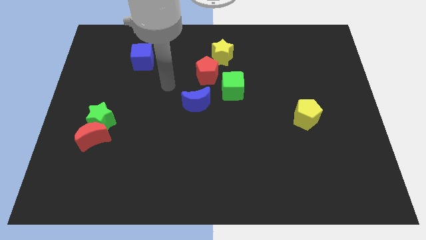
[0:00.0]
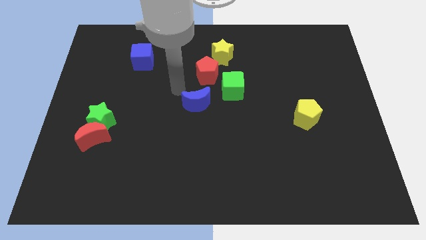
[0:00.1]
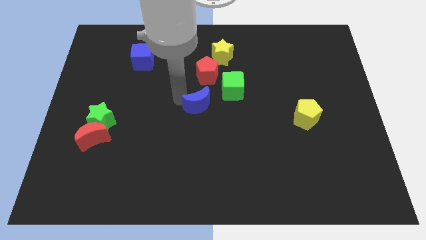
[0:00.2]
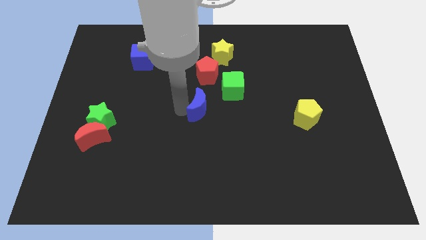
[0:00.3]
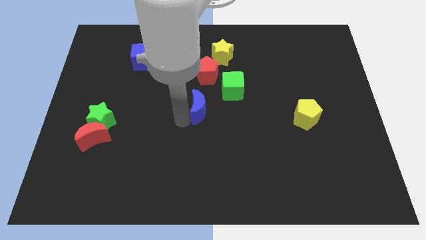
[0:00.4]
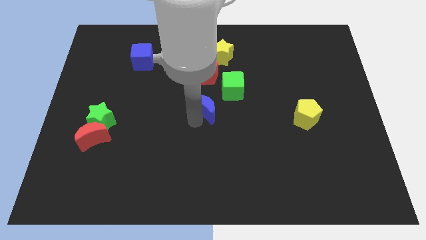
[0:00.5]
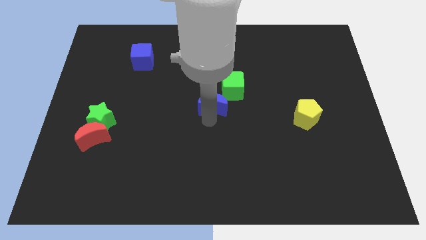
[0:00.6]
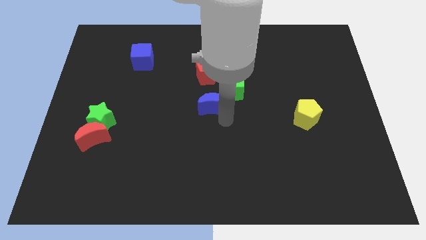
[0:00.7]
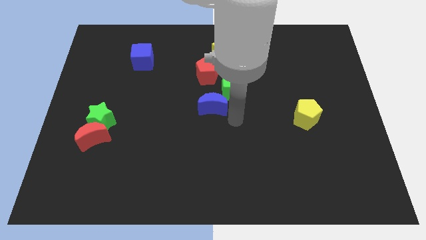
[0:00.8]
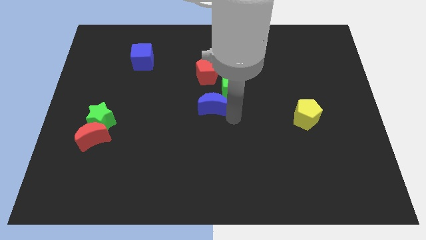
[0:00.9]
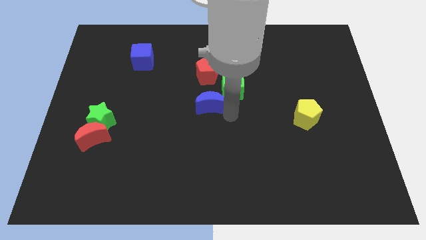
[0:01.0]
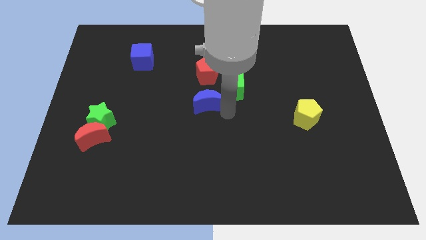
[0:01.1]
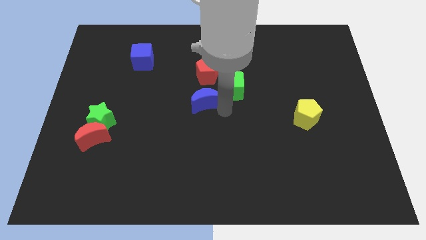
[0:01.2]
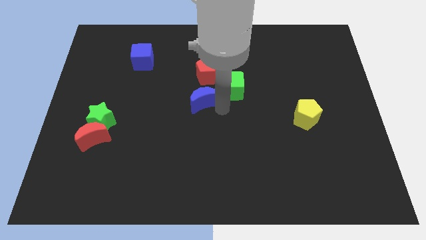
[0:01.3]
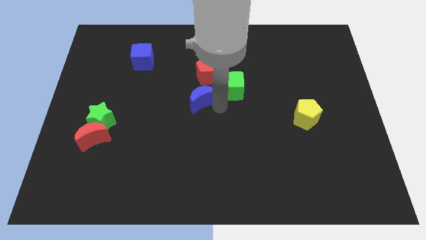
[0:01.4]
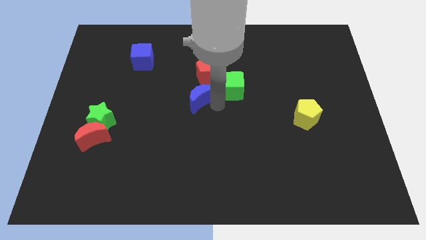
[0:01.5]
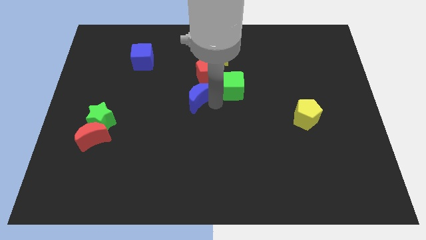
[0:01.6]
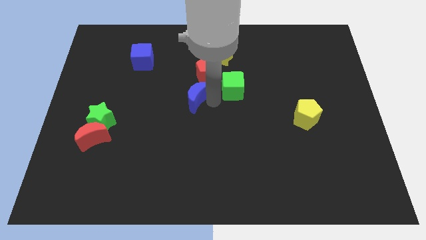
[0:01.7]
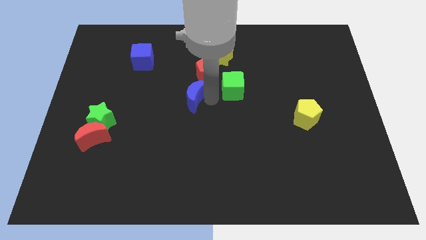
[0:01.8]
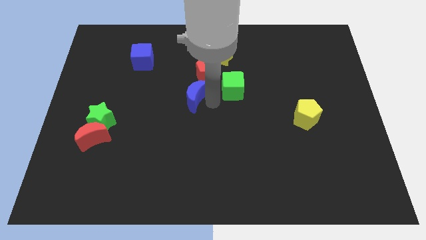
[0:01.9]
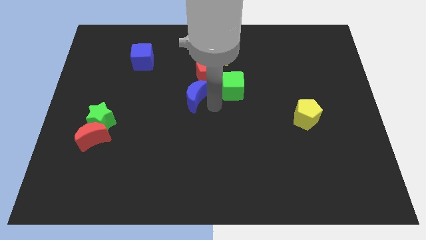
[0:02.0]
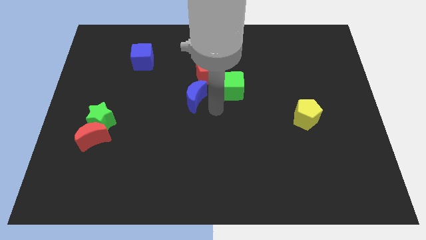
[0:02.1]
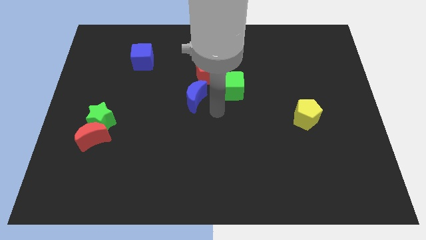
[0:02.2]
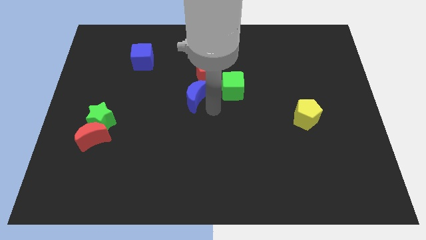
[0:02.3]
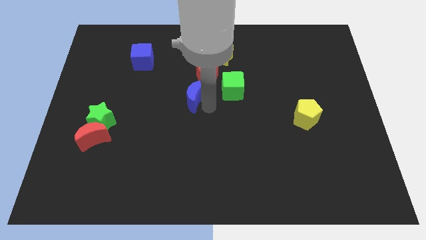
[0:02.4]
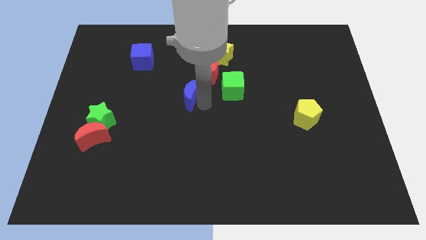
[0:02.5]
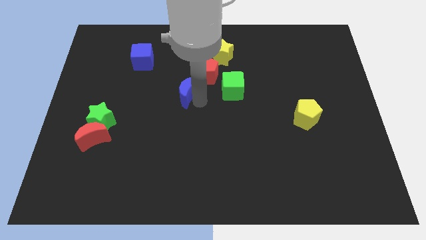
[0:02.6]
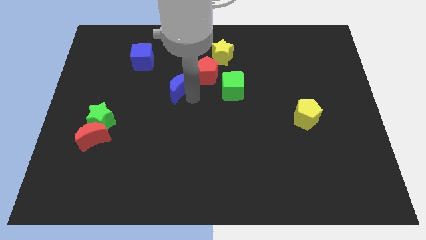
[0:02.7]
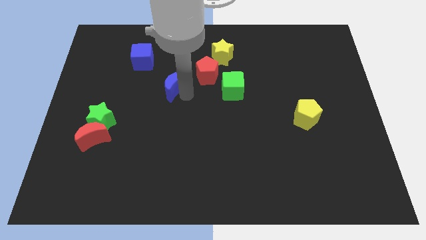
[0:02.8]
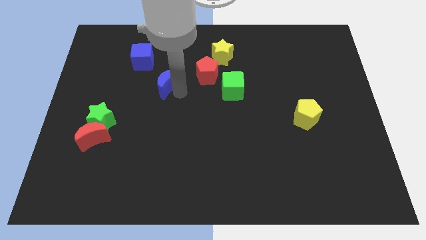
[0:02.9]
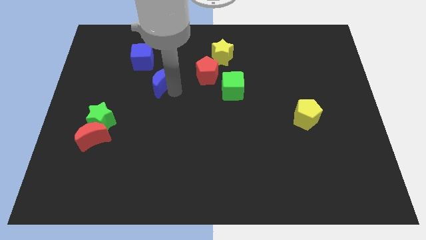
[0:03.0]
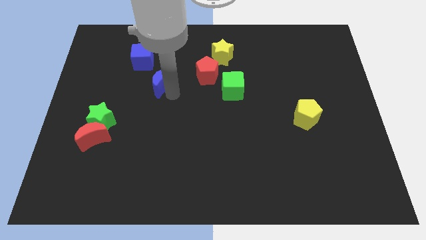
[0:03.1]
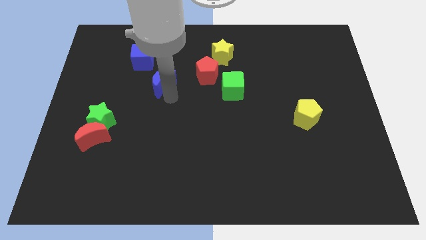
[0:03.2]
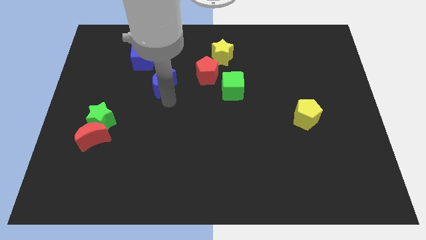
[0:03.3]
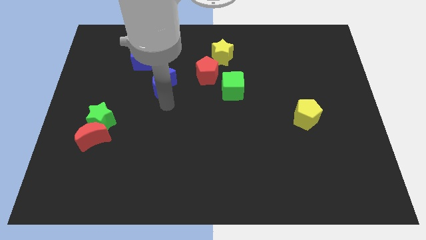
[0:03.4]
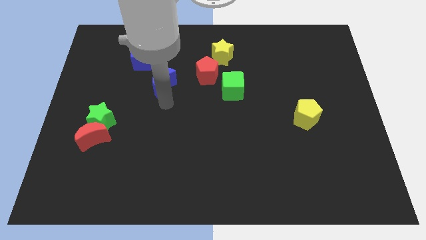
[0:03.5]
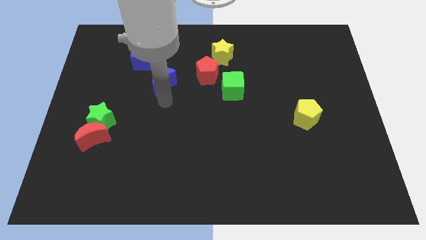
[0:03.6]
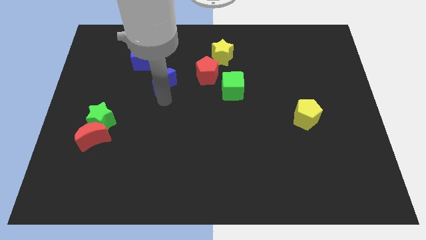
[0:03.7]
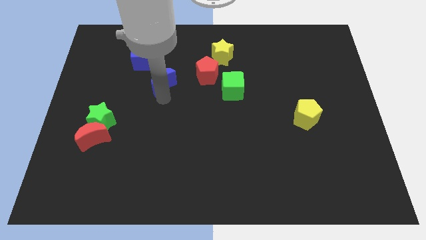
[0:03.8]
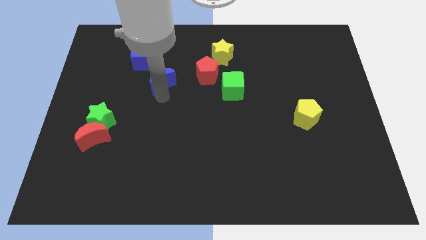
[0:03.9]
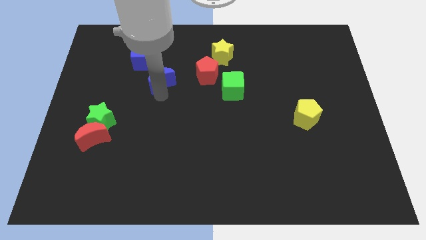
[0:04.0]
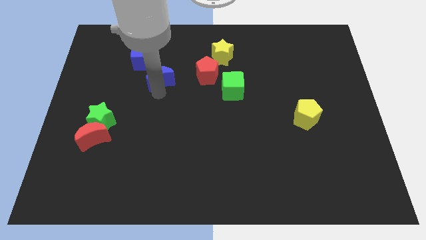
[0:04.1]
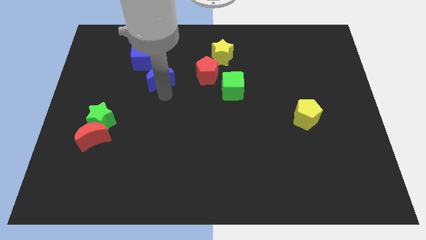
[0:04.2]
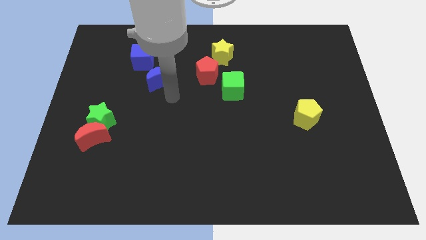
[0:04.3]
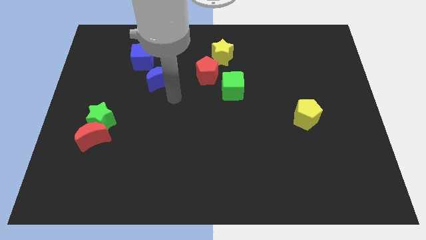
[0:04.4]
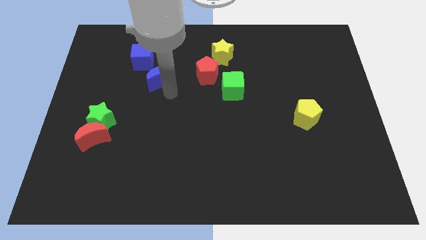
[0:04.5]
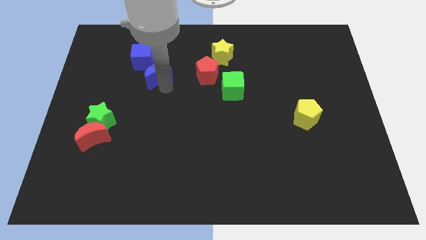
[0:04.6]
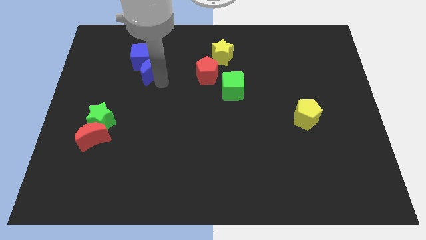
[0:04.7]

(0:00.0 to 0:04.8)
slide the blue moon to the blue cube

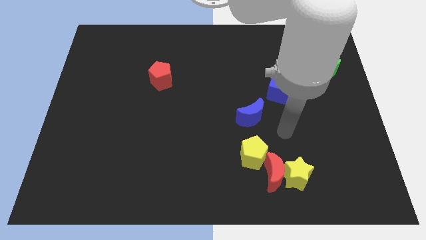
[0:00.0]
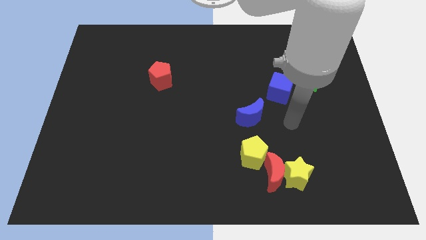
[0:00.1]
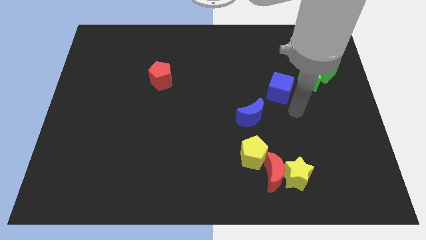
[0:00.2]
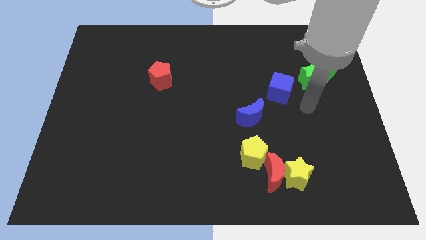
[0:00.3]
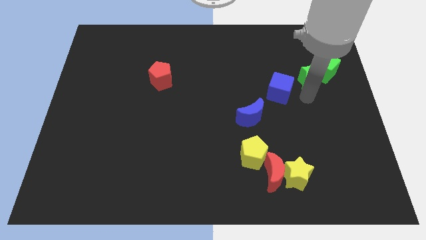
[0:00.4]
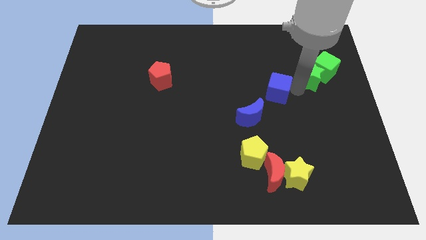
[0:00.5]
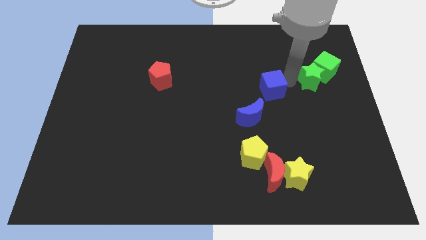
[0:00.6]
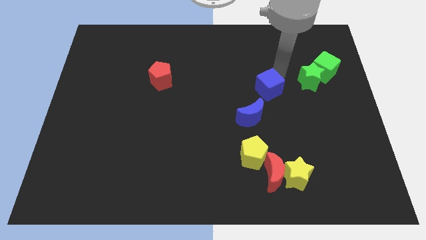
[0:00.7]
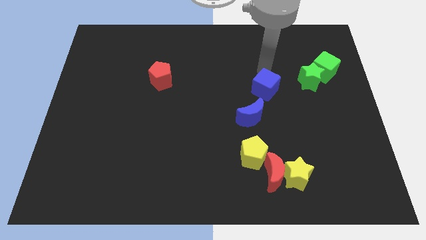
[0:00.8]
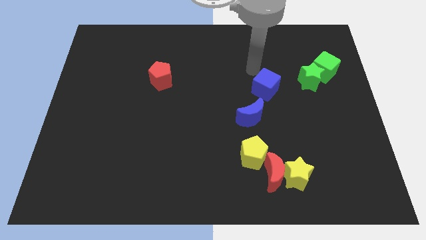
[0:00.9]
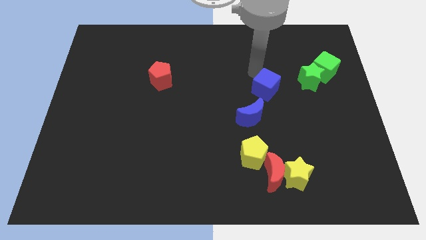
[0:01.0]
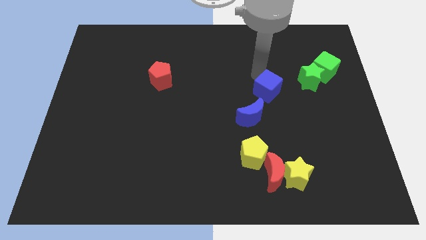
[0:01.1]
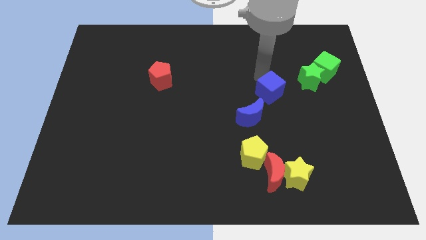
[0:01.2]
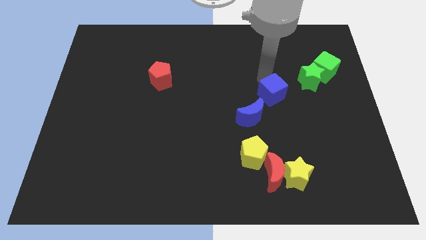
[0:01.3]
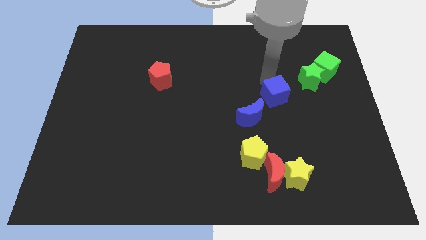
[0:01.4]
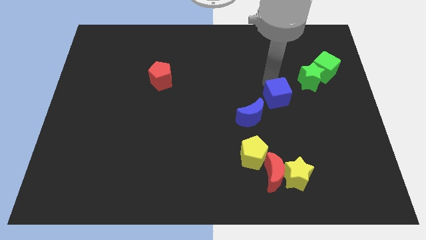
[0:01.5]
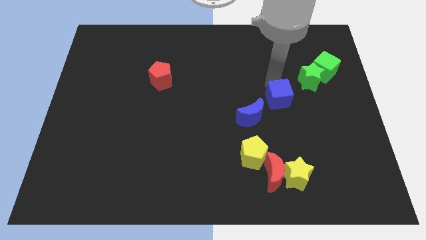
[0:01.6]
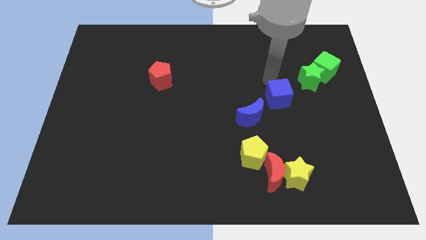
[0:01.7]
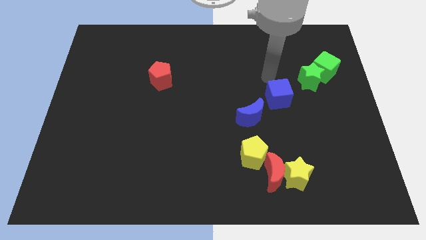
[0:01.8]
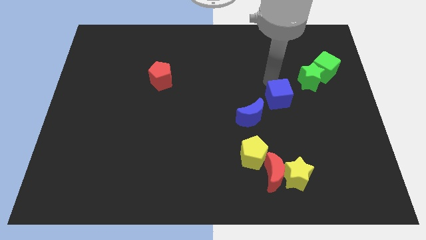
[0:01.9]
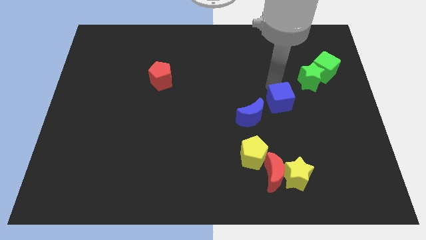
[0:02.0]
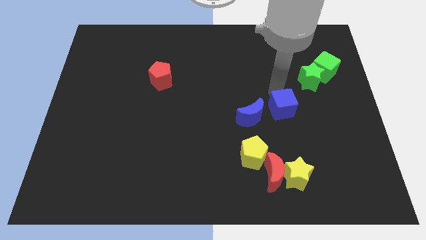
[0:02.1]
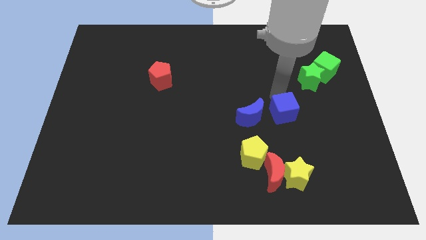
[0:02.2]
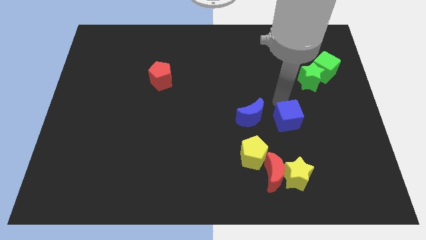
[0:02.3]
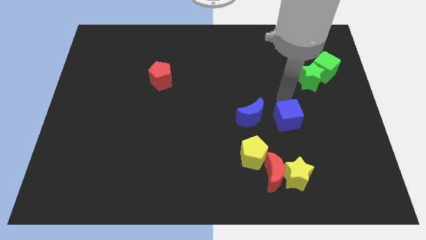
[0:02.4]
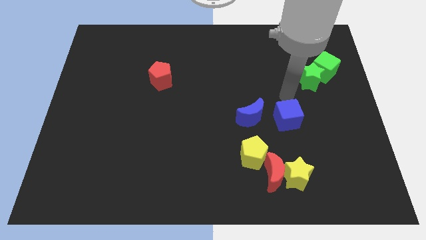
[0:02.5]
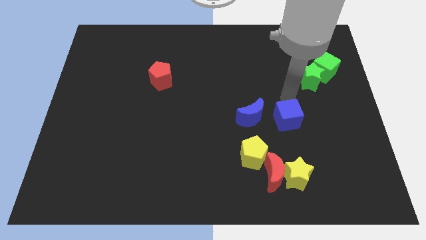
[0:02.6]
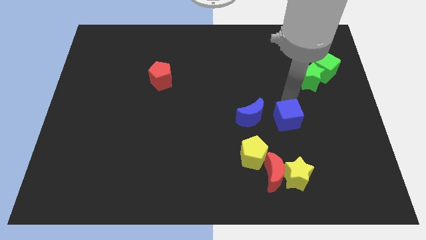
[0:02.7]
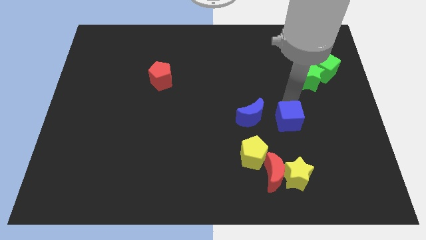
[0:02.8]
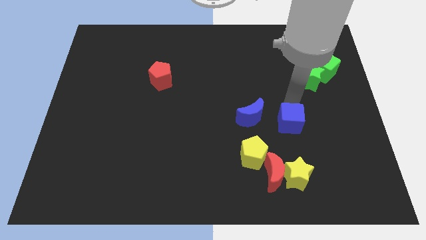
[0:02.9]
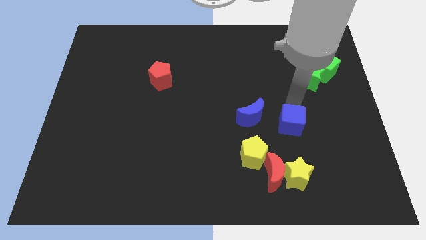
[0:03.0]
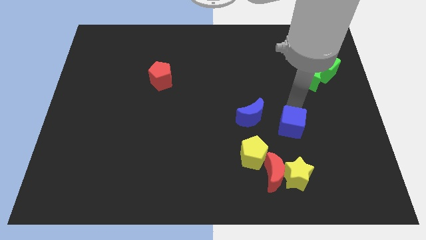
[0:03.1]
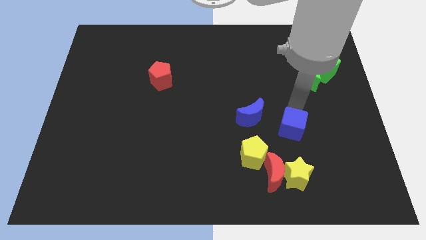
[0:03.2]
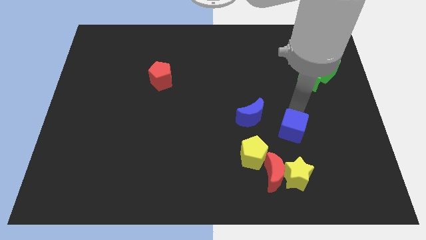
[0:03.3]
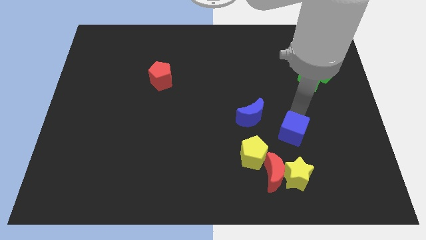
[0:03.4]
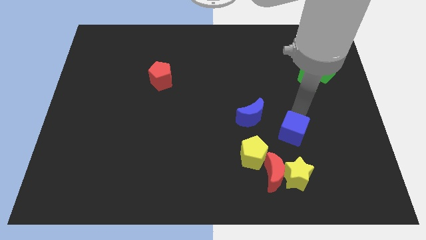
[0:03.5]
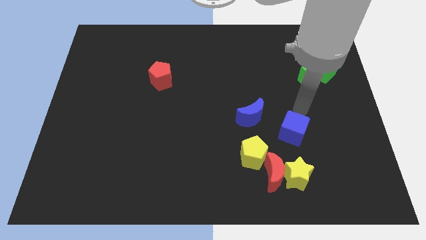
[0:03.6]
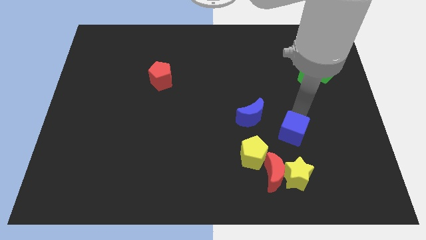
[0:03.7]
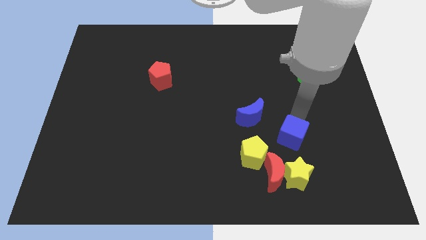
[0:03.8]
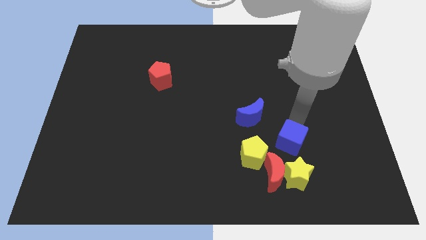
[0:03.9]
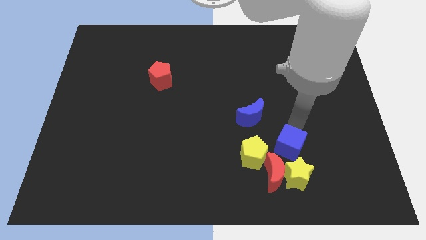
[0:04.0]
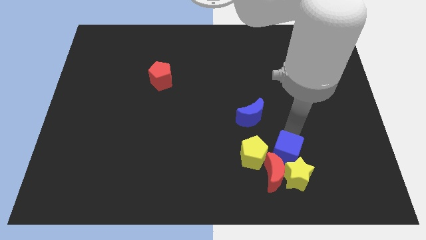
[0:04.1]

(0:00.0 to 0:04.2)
slide the blue cube towards the yellow star
